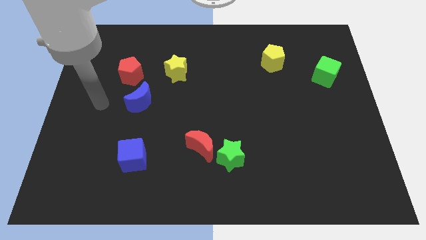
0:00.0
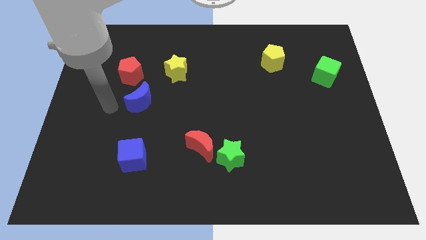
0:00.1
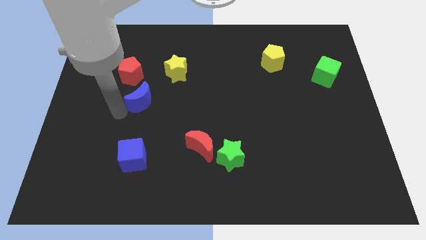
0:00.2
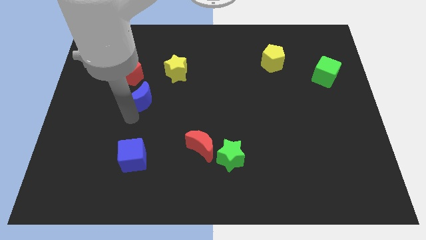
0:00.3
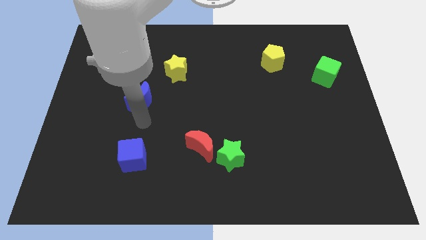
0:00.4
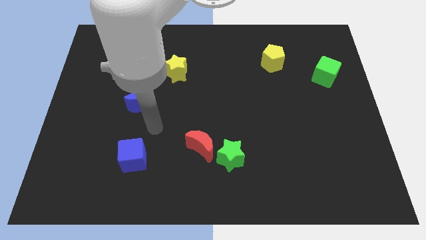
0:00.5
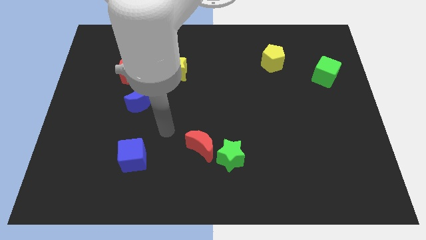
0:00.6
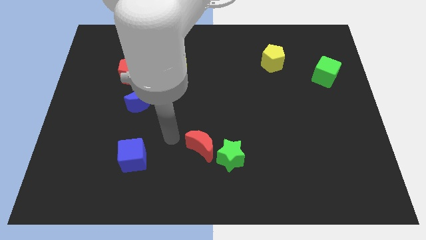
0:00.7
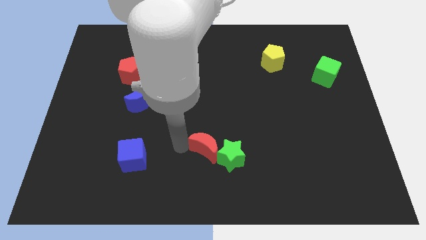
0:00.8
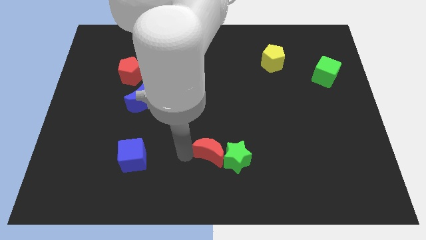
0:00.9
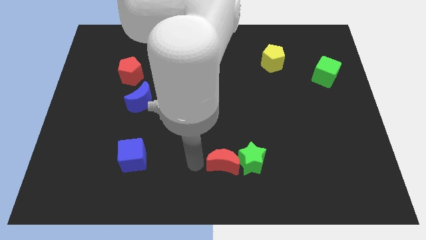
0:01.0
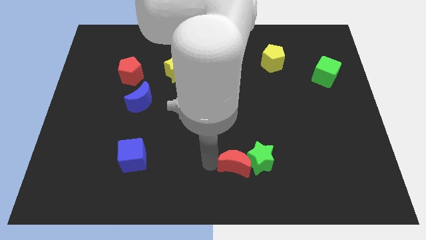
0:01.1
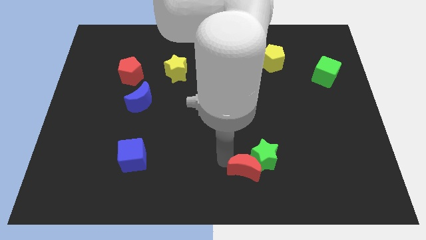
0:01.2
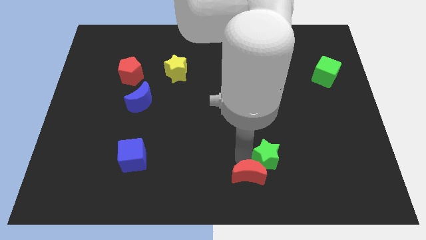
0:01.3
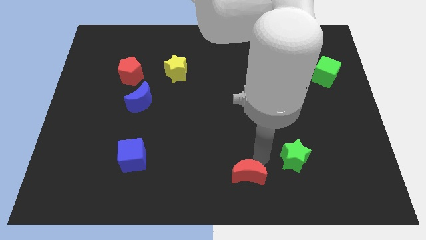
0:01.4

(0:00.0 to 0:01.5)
move the red moon away from the green star

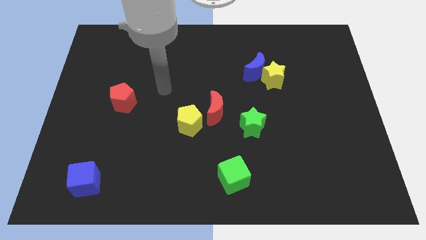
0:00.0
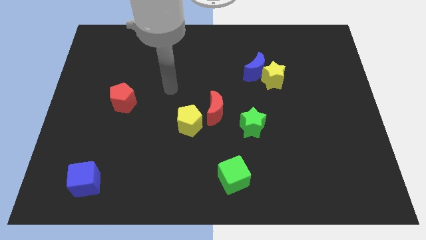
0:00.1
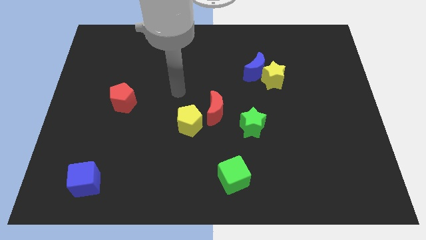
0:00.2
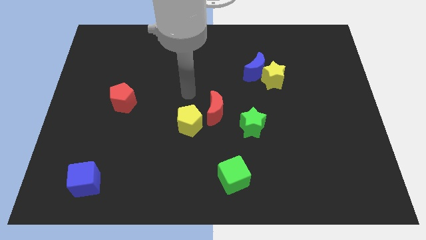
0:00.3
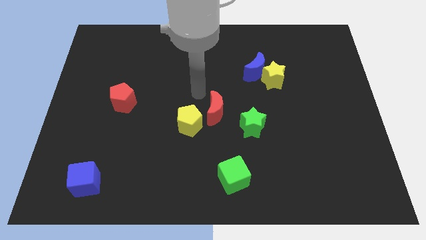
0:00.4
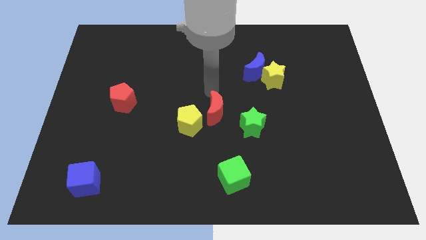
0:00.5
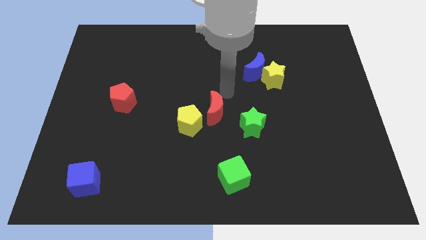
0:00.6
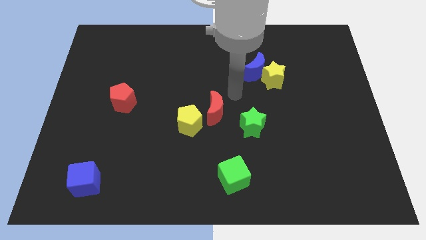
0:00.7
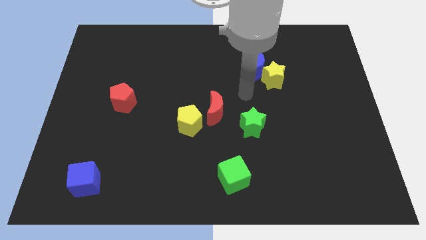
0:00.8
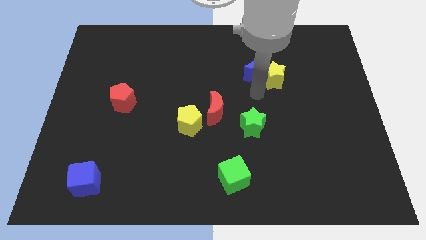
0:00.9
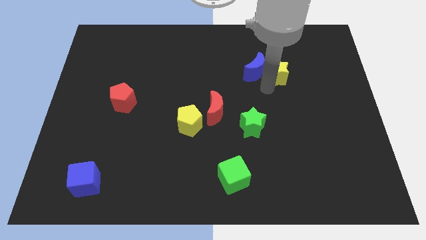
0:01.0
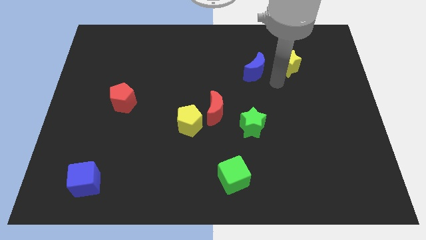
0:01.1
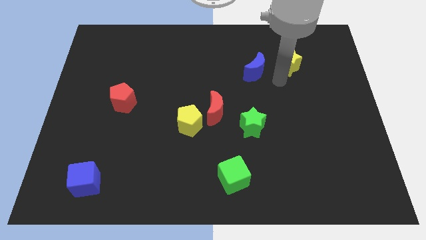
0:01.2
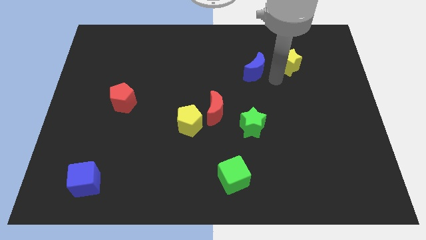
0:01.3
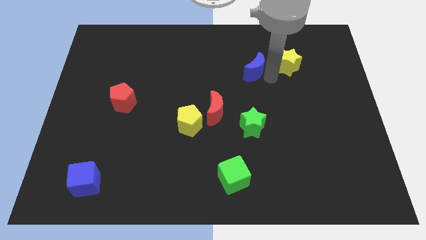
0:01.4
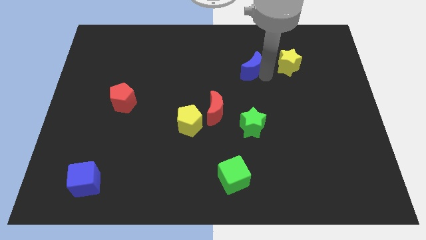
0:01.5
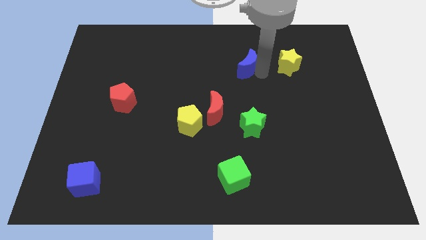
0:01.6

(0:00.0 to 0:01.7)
pull the blue moon apart from the yellow star

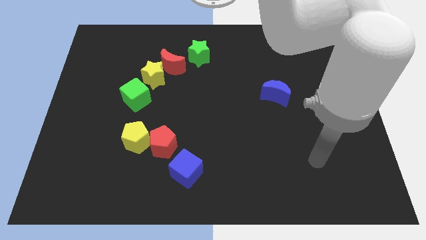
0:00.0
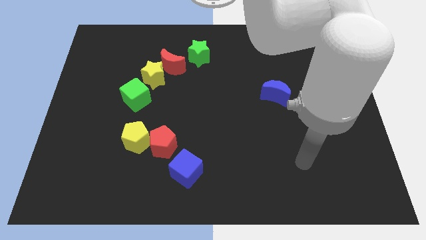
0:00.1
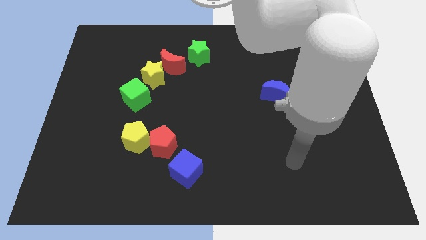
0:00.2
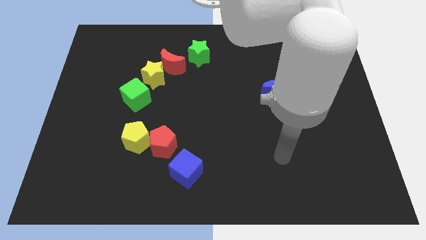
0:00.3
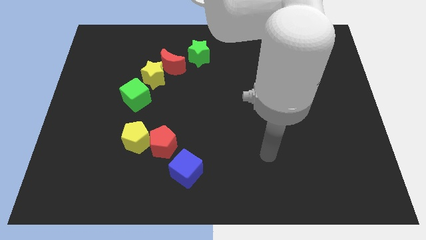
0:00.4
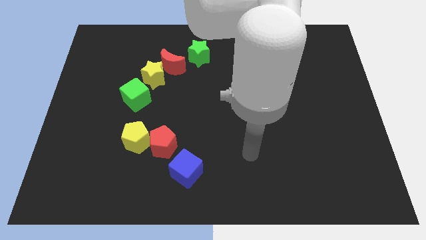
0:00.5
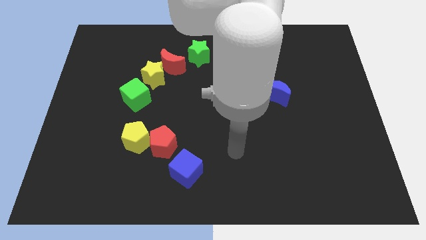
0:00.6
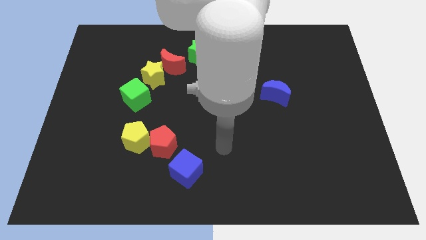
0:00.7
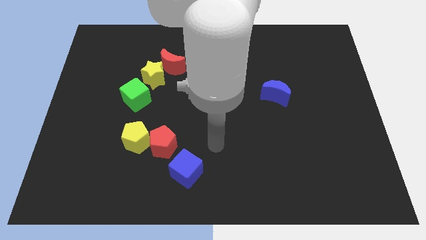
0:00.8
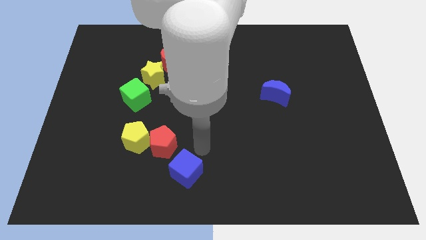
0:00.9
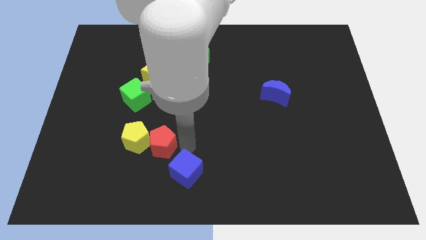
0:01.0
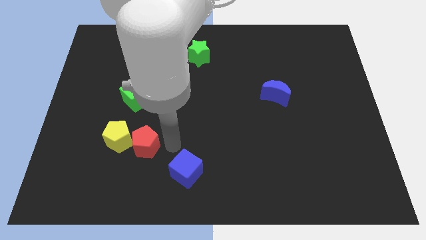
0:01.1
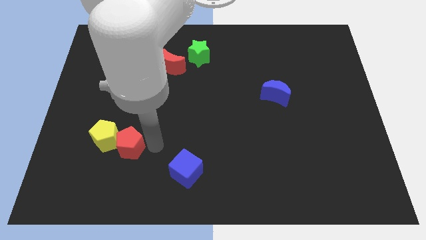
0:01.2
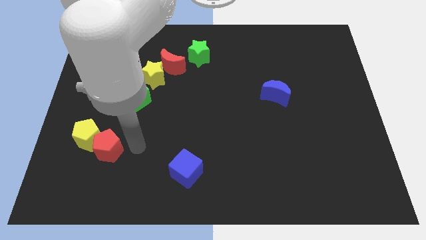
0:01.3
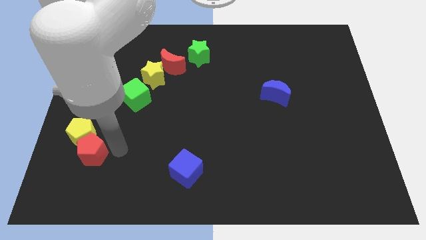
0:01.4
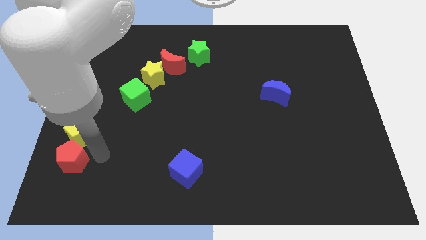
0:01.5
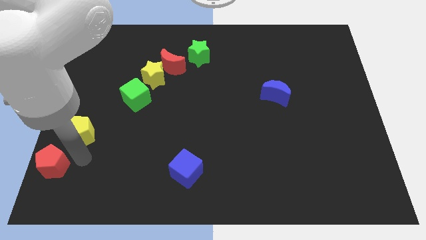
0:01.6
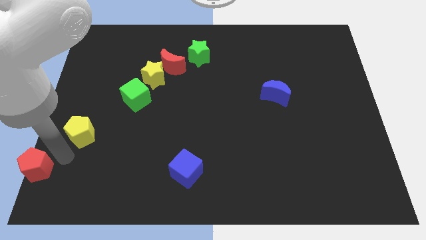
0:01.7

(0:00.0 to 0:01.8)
move the yellow pentagon away from the red pentagon

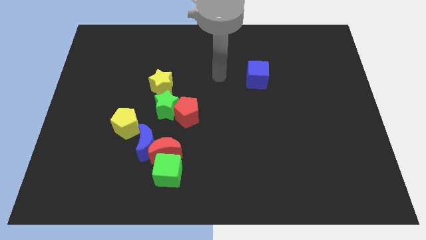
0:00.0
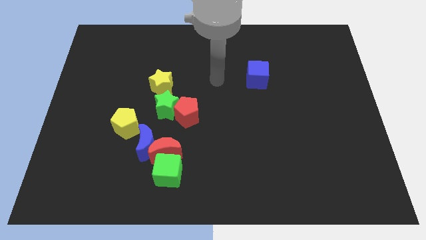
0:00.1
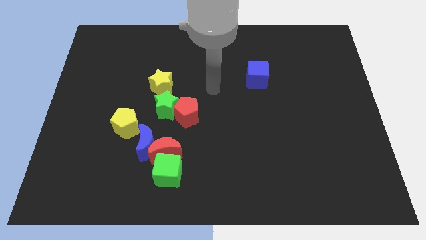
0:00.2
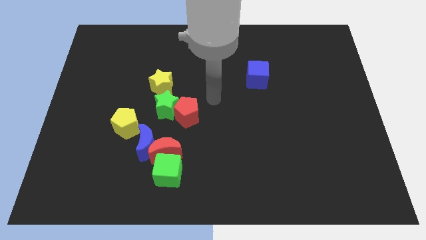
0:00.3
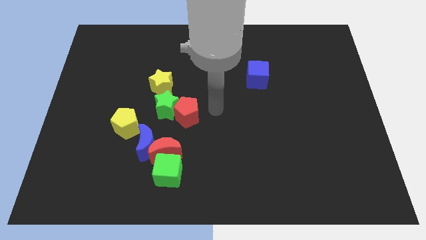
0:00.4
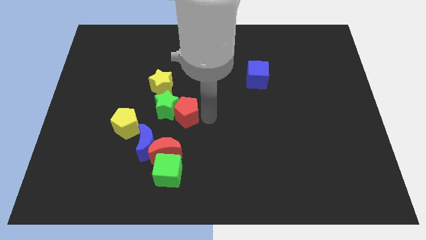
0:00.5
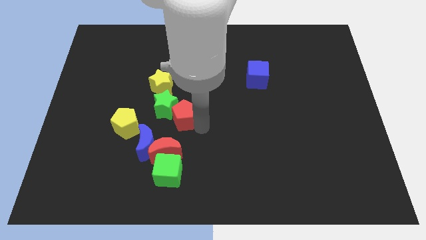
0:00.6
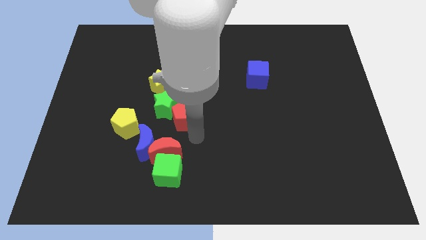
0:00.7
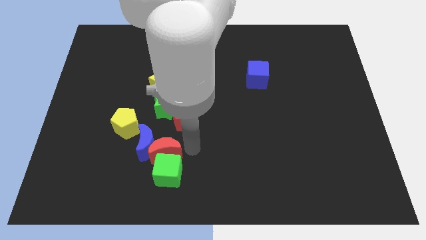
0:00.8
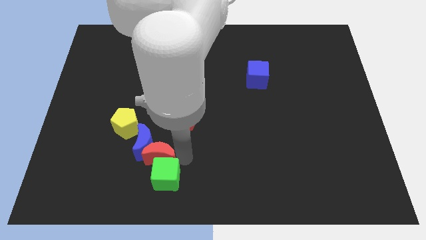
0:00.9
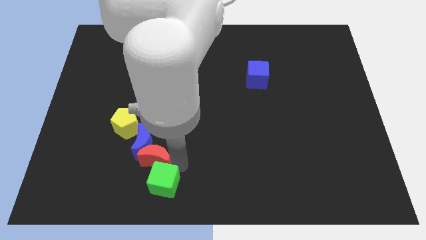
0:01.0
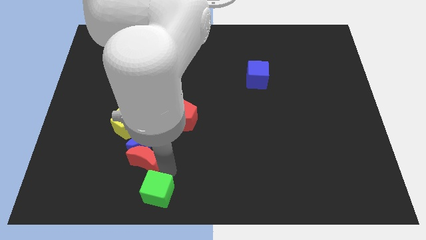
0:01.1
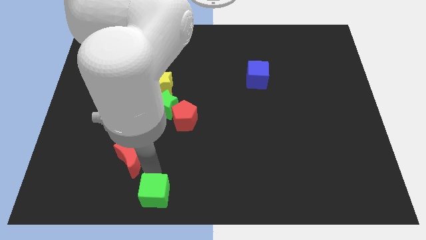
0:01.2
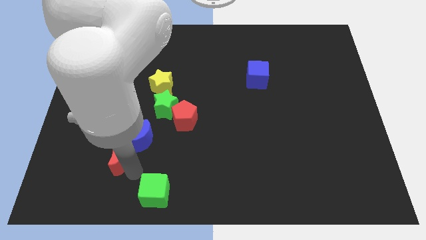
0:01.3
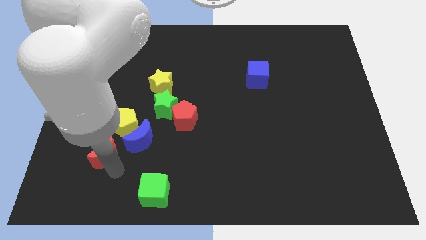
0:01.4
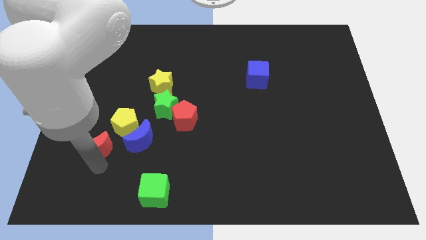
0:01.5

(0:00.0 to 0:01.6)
pull the red moon apart from the blue moon and green cube

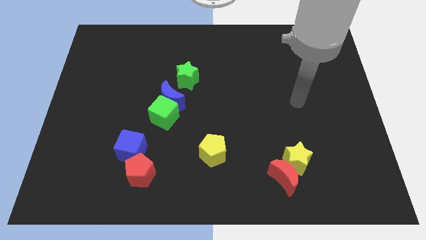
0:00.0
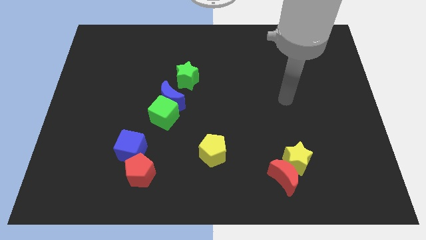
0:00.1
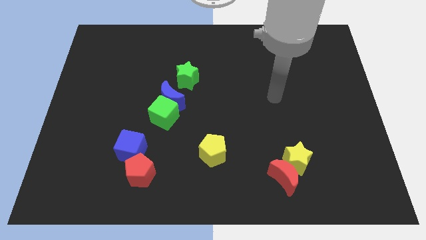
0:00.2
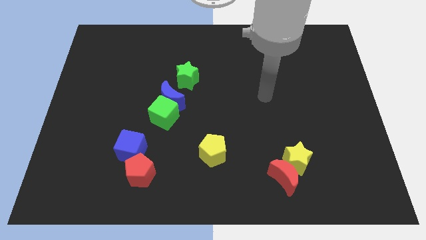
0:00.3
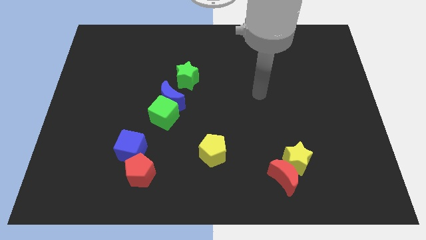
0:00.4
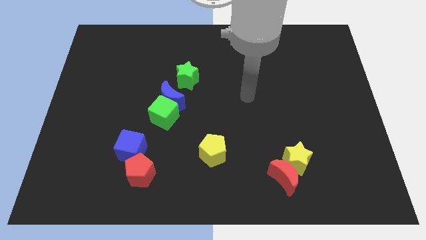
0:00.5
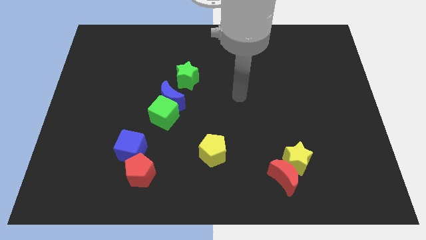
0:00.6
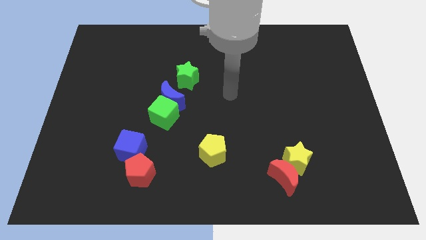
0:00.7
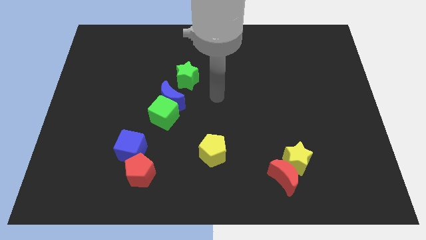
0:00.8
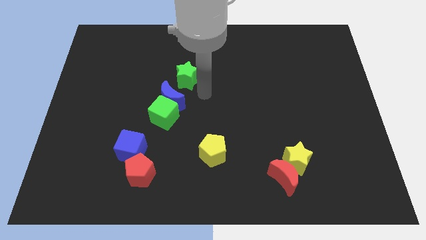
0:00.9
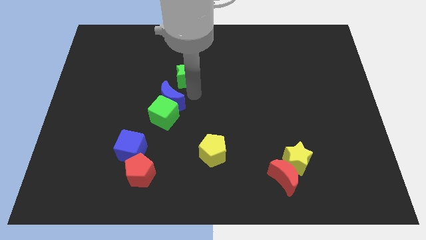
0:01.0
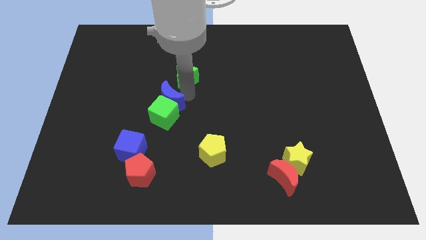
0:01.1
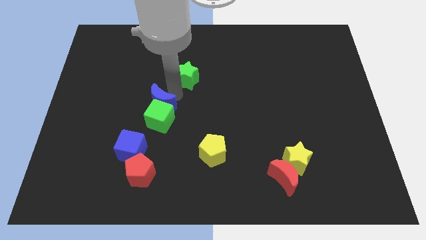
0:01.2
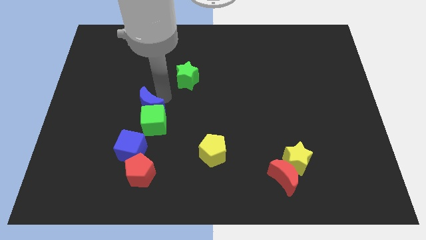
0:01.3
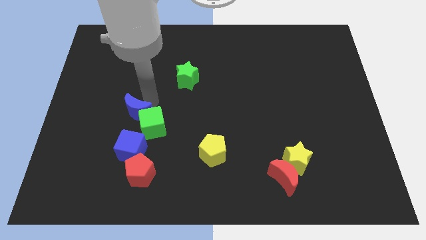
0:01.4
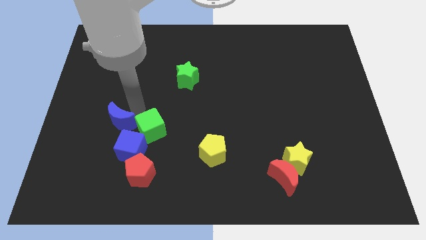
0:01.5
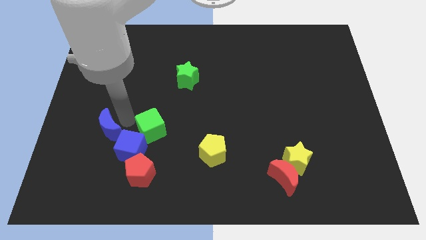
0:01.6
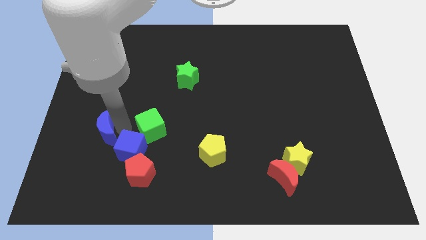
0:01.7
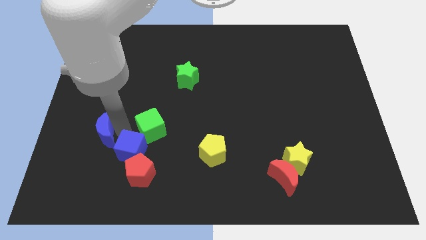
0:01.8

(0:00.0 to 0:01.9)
move the green cube away from the blue moon

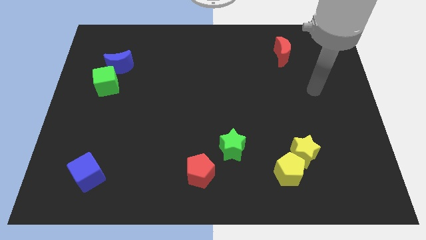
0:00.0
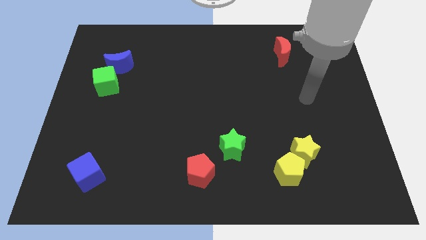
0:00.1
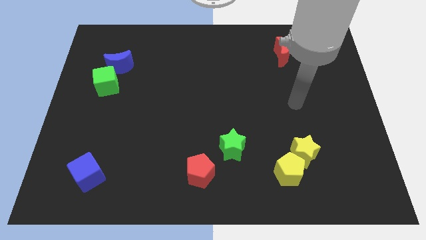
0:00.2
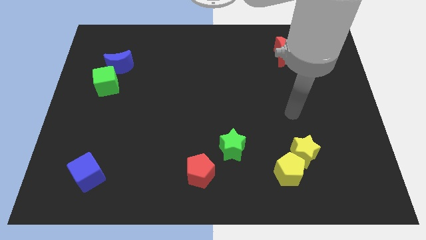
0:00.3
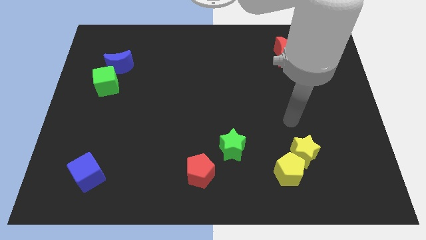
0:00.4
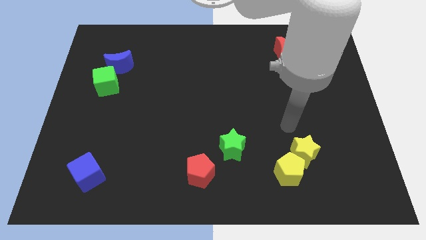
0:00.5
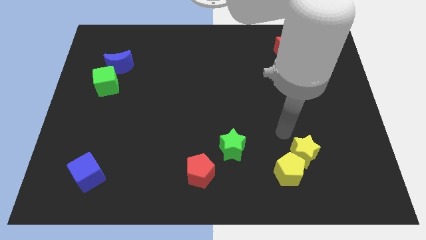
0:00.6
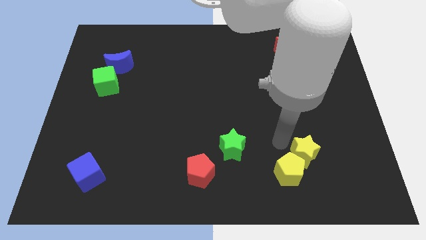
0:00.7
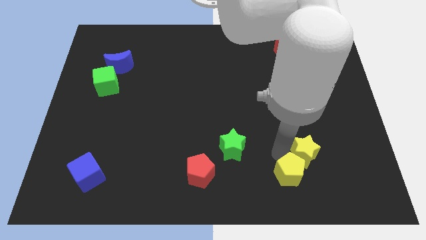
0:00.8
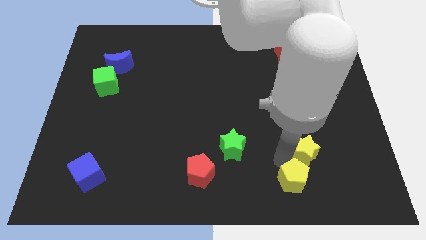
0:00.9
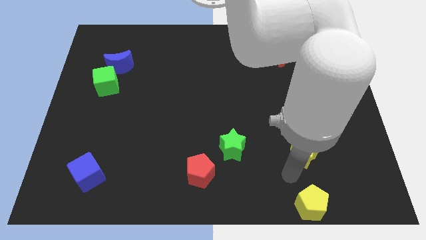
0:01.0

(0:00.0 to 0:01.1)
pull the yellow star apart from the yellow pentagon
